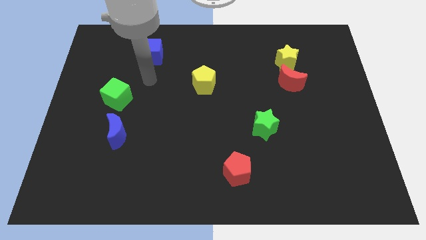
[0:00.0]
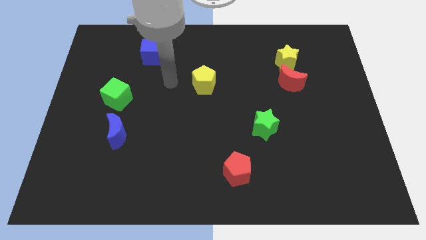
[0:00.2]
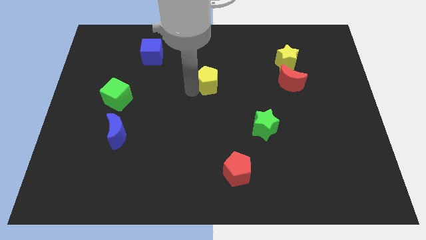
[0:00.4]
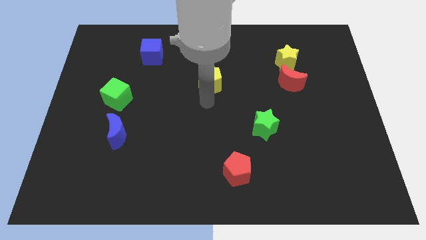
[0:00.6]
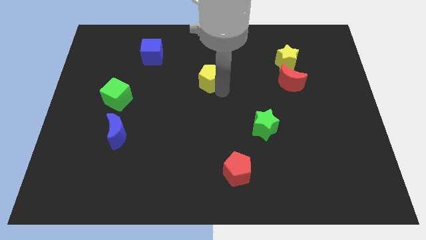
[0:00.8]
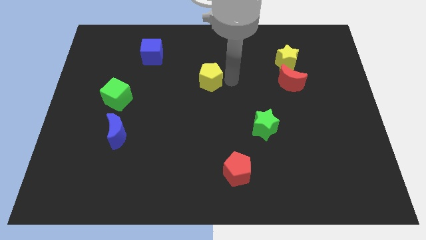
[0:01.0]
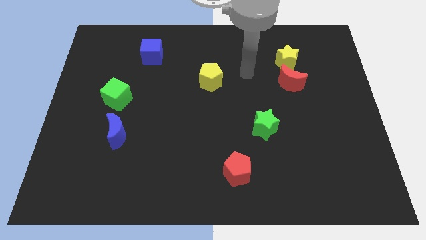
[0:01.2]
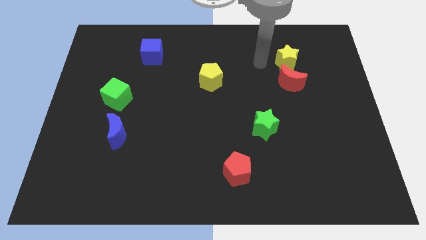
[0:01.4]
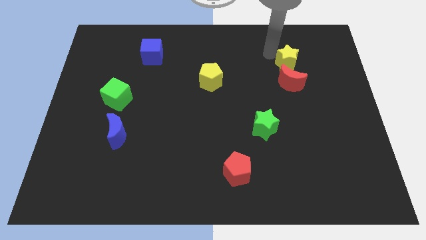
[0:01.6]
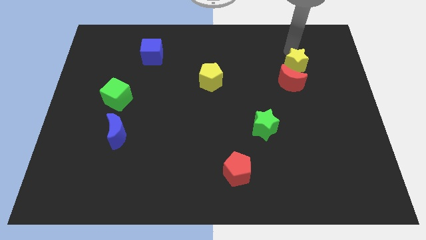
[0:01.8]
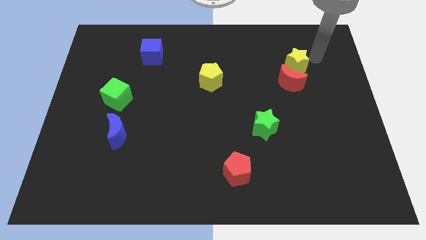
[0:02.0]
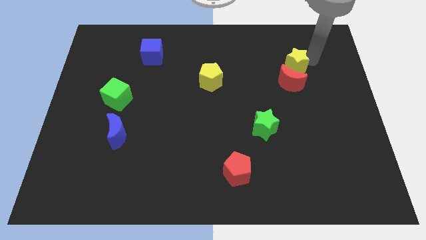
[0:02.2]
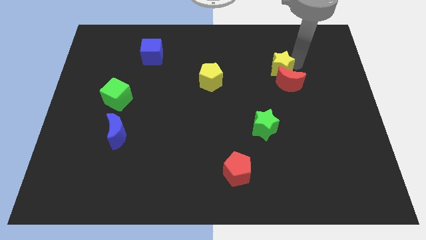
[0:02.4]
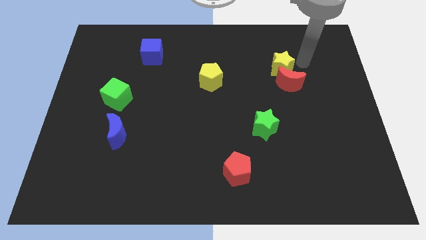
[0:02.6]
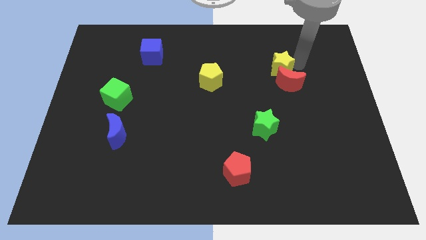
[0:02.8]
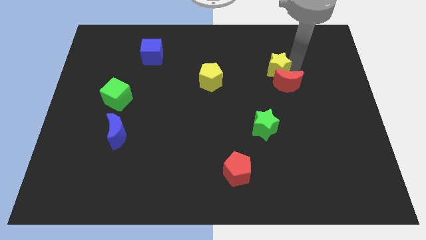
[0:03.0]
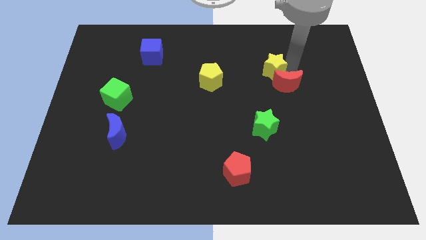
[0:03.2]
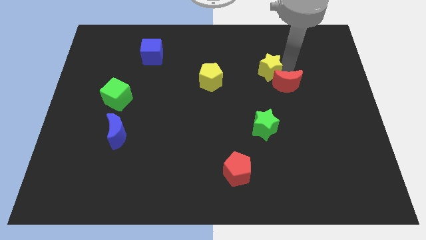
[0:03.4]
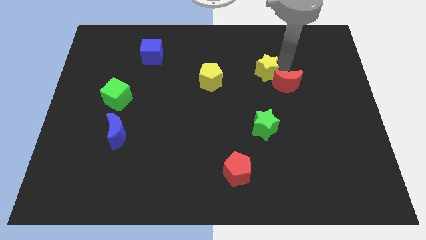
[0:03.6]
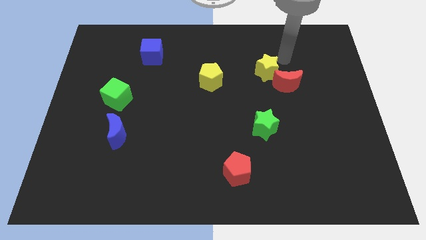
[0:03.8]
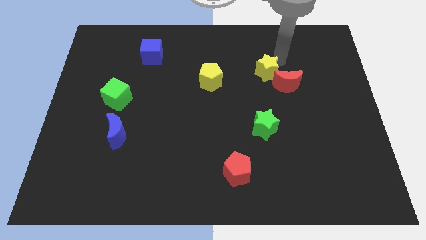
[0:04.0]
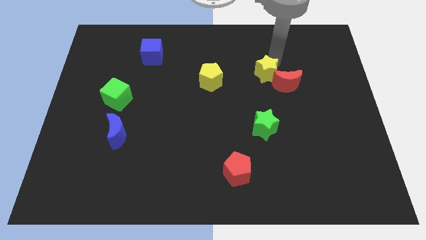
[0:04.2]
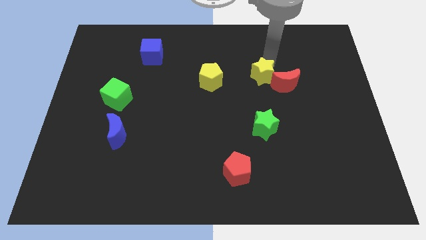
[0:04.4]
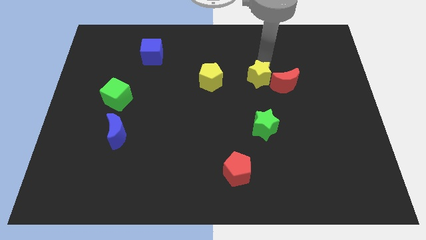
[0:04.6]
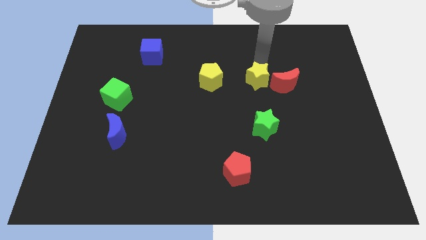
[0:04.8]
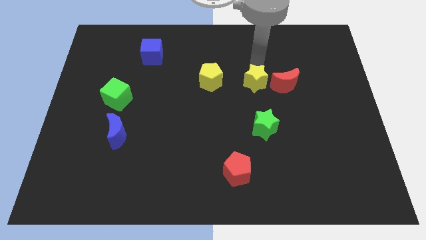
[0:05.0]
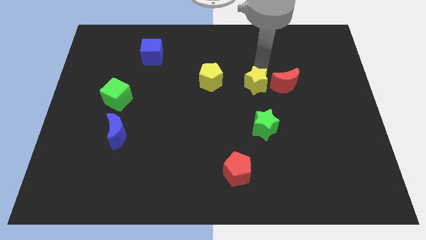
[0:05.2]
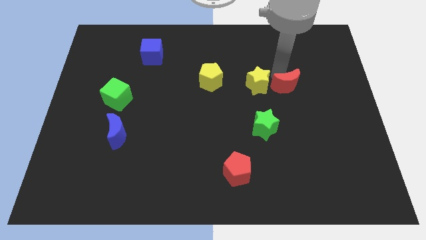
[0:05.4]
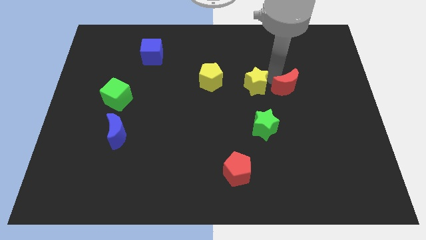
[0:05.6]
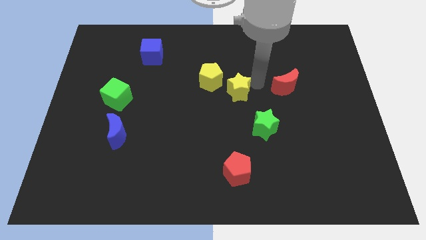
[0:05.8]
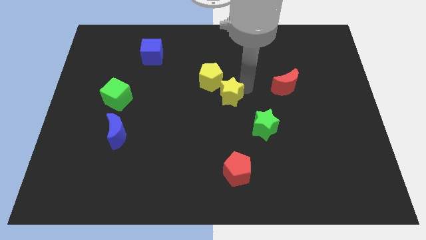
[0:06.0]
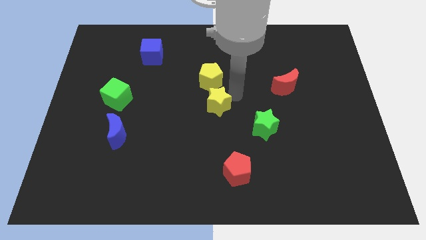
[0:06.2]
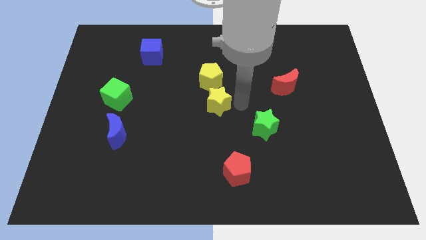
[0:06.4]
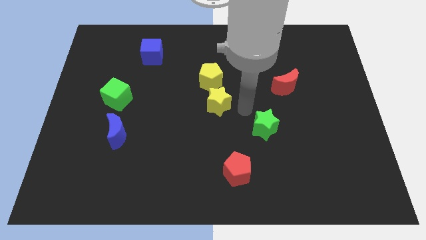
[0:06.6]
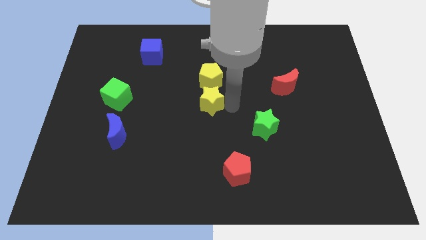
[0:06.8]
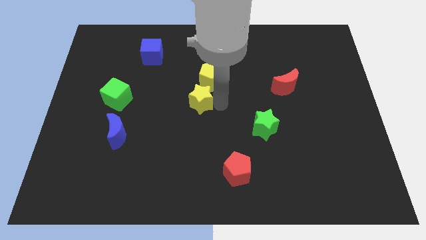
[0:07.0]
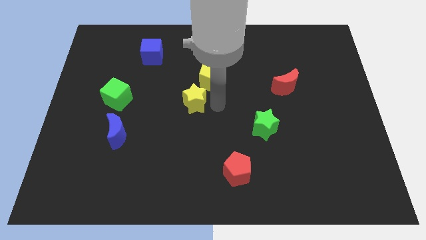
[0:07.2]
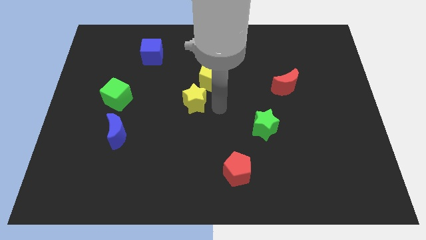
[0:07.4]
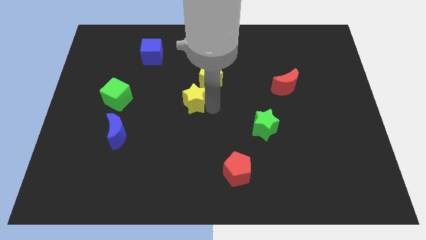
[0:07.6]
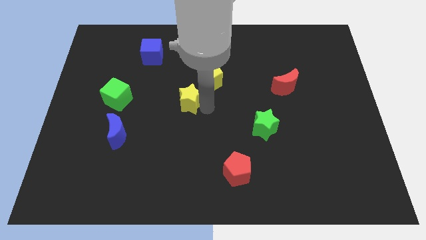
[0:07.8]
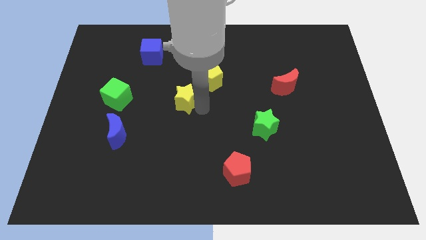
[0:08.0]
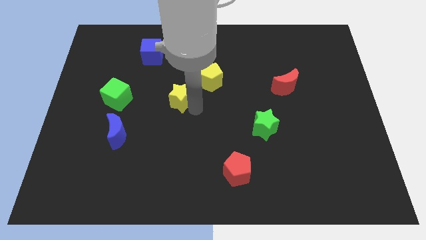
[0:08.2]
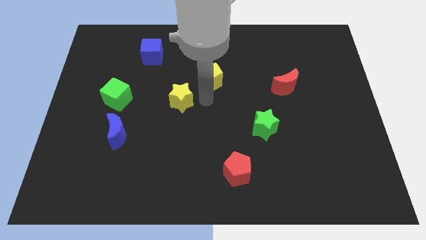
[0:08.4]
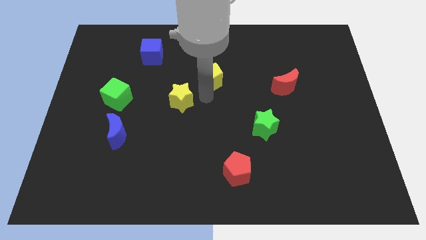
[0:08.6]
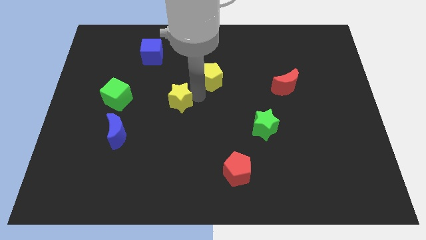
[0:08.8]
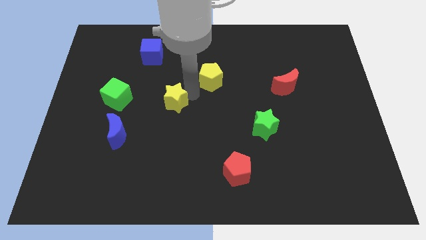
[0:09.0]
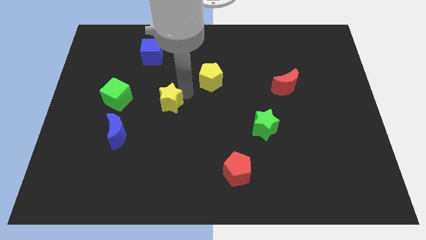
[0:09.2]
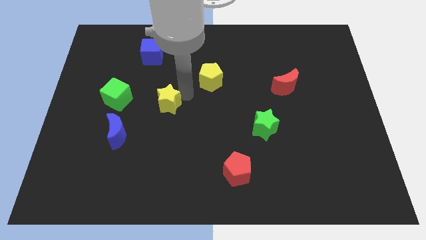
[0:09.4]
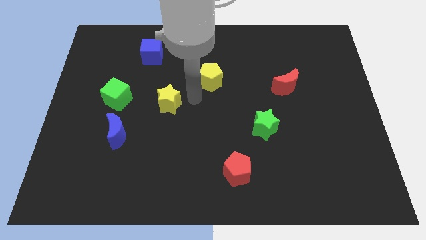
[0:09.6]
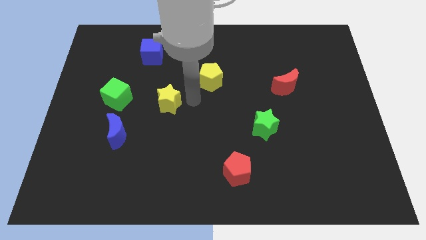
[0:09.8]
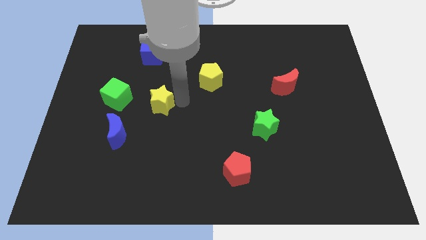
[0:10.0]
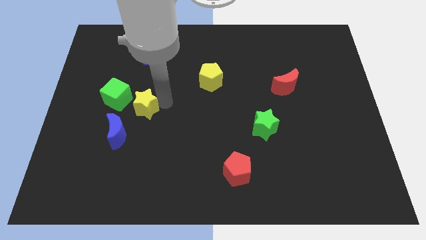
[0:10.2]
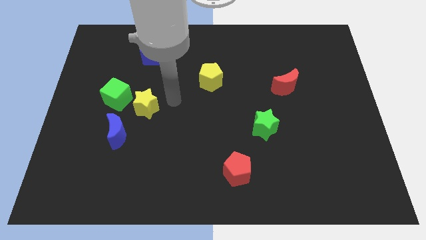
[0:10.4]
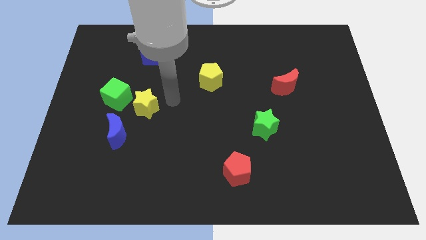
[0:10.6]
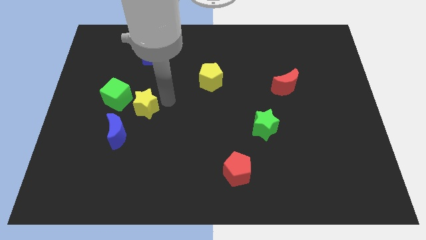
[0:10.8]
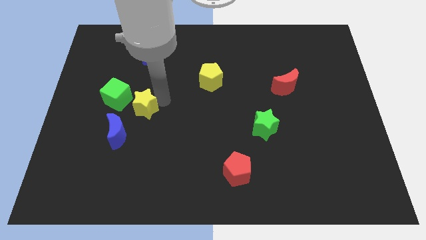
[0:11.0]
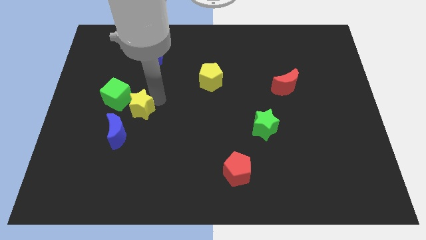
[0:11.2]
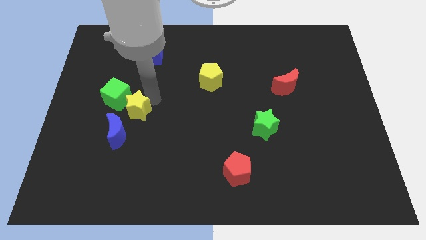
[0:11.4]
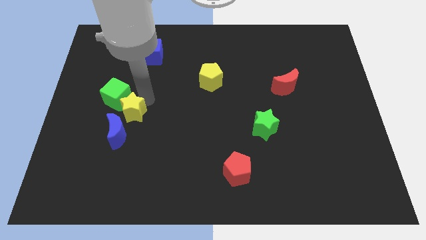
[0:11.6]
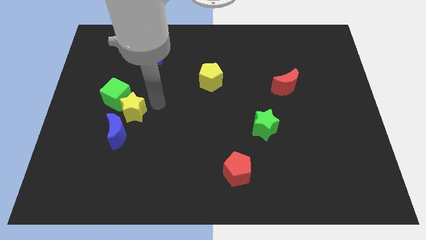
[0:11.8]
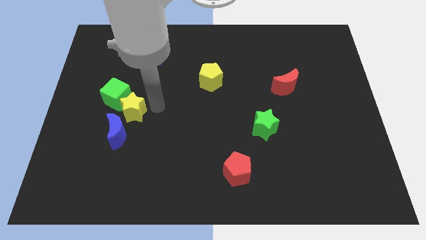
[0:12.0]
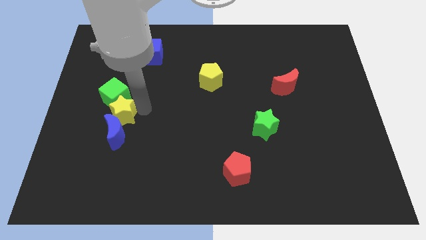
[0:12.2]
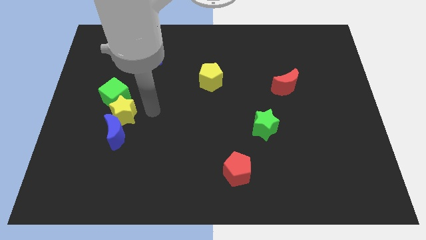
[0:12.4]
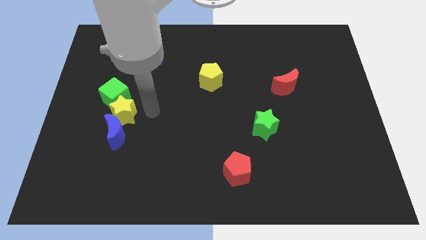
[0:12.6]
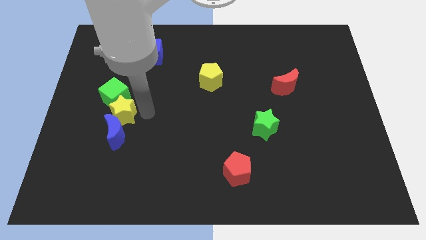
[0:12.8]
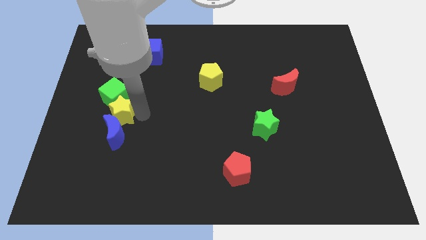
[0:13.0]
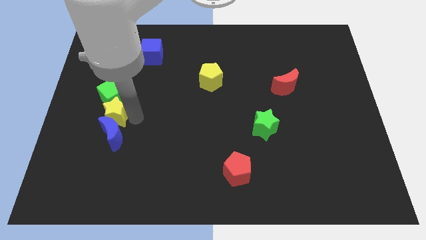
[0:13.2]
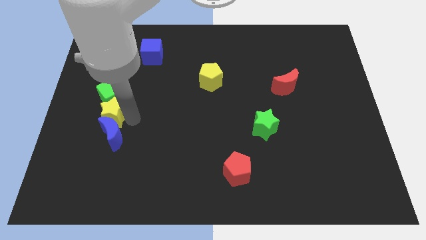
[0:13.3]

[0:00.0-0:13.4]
move the yellow star to the bottom left side of the green cube
